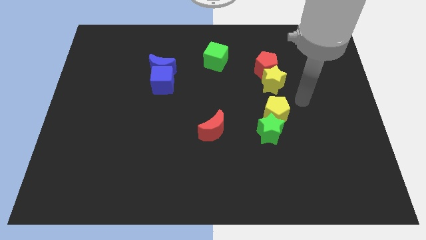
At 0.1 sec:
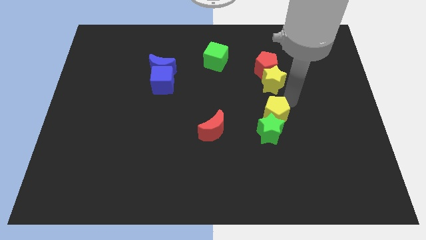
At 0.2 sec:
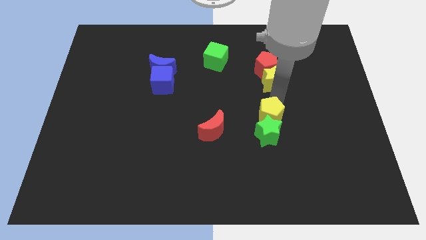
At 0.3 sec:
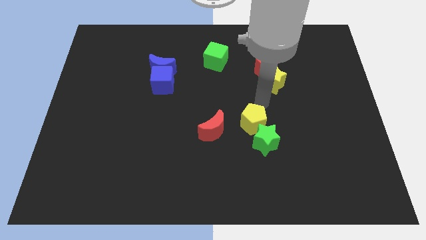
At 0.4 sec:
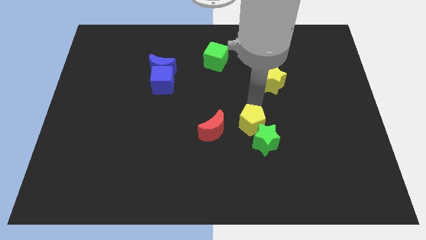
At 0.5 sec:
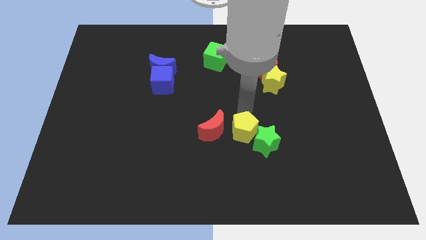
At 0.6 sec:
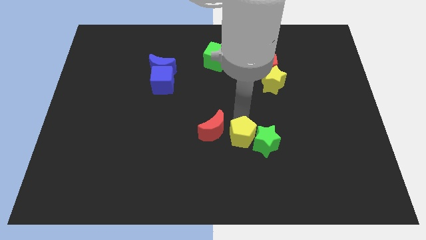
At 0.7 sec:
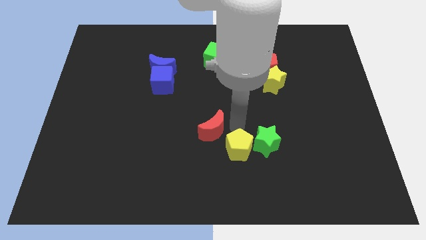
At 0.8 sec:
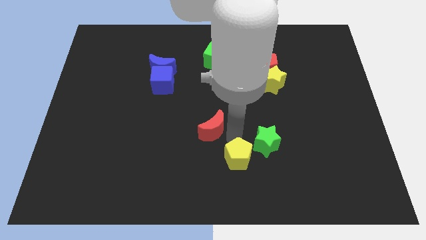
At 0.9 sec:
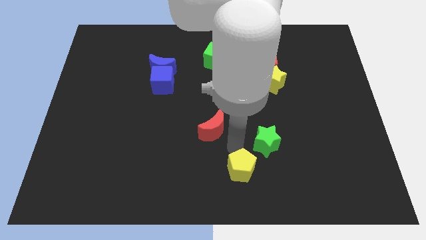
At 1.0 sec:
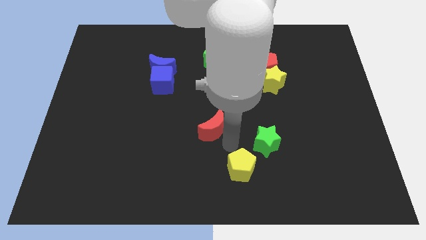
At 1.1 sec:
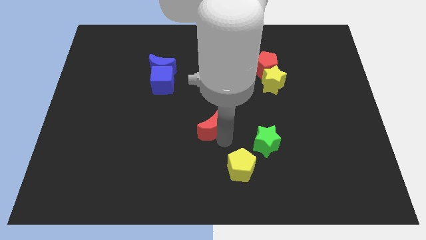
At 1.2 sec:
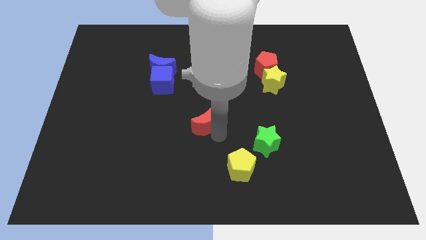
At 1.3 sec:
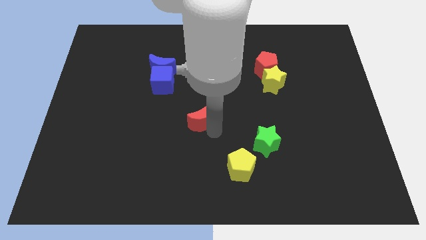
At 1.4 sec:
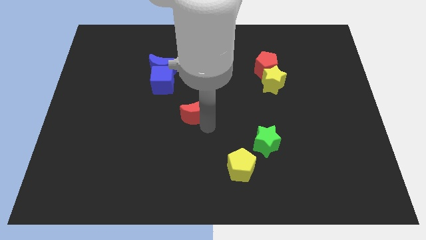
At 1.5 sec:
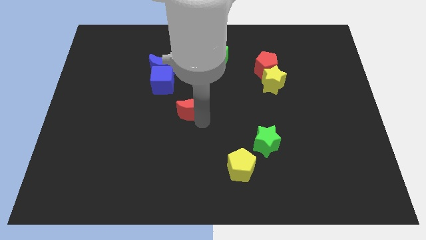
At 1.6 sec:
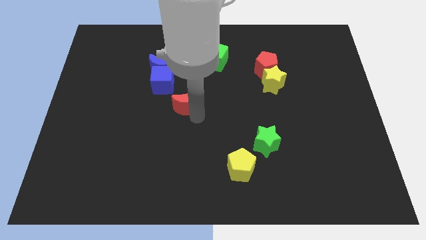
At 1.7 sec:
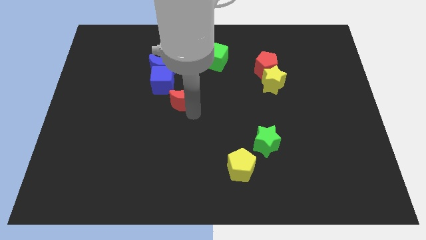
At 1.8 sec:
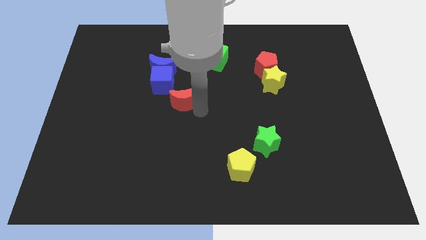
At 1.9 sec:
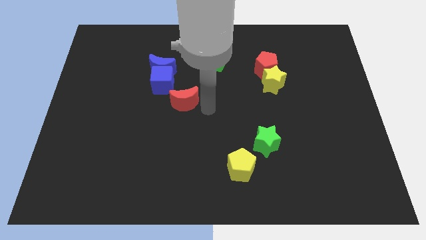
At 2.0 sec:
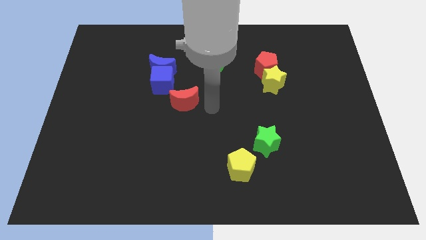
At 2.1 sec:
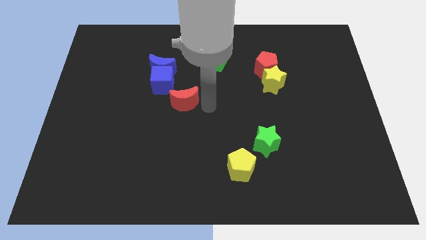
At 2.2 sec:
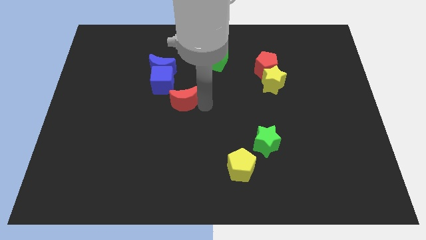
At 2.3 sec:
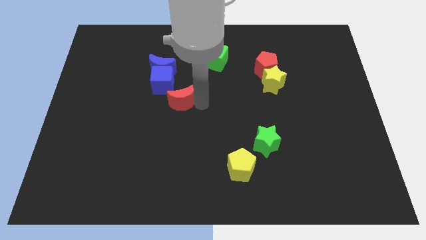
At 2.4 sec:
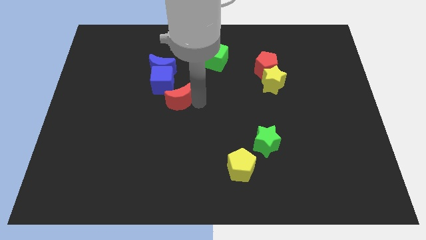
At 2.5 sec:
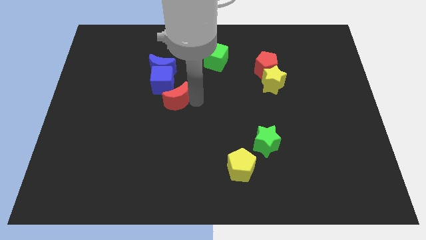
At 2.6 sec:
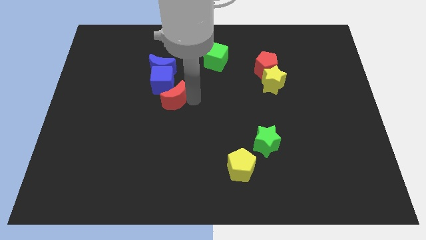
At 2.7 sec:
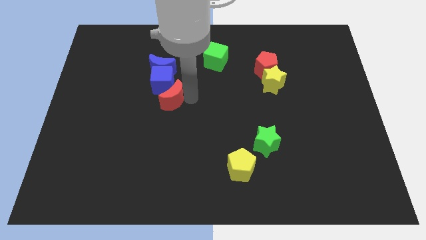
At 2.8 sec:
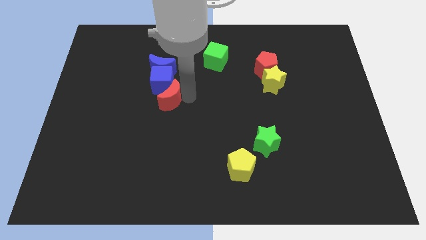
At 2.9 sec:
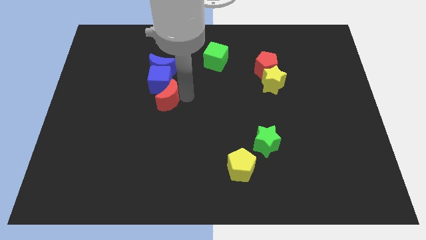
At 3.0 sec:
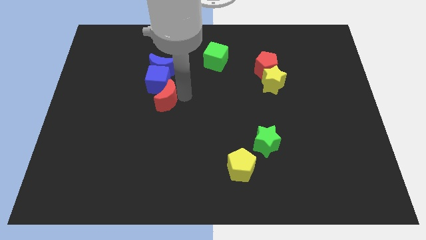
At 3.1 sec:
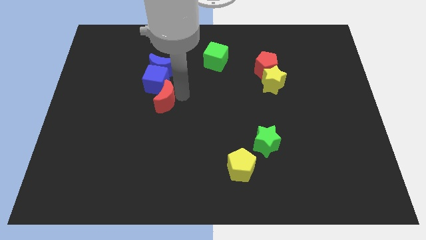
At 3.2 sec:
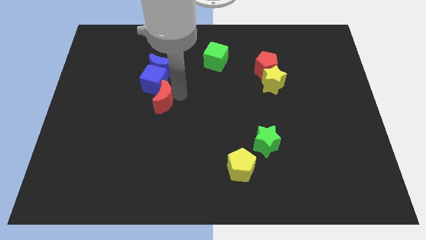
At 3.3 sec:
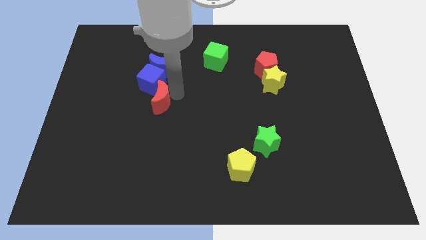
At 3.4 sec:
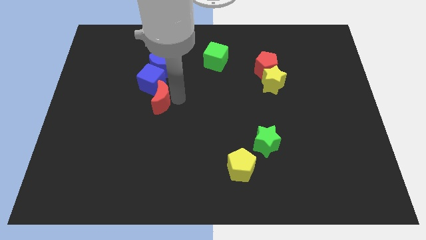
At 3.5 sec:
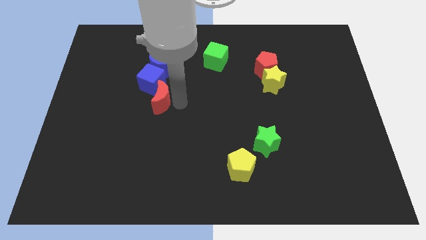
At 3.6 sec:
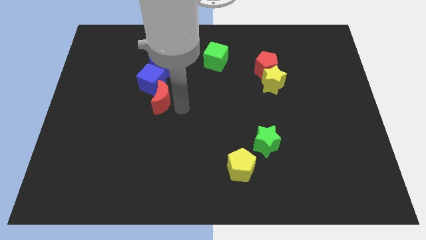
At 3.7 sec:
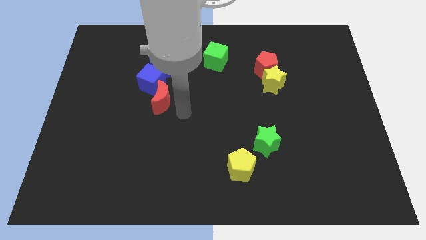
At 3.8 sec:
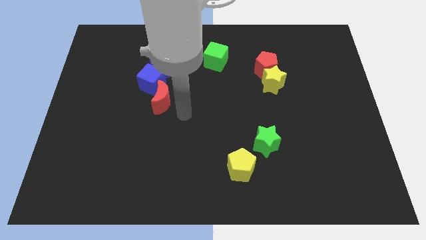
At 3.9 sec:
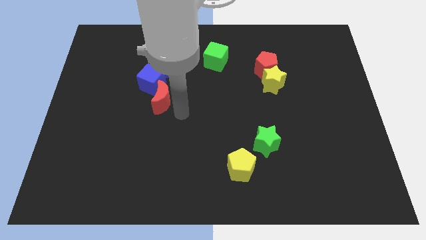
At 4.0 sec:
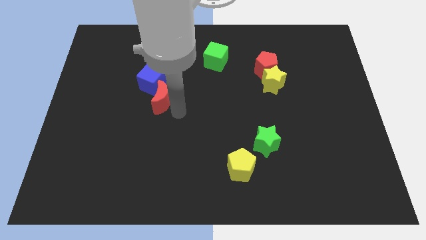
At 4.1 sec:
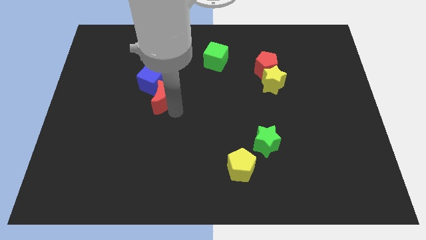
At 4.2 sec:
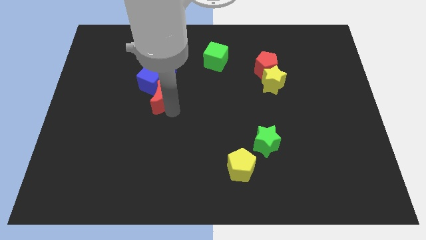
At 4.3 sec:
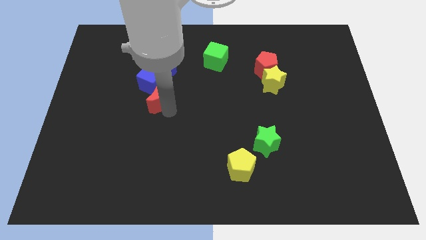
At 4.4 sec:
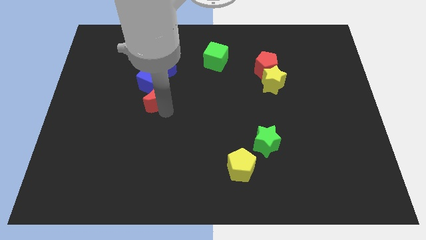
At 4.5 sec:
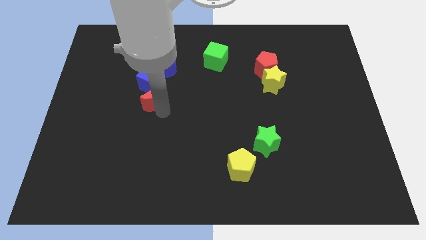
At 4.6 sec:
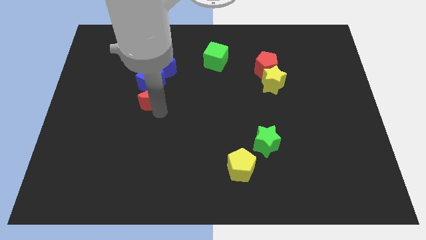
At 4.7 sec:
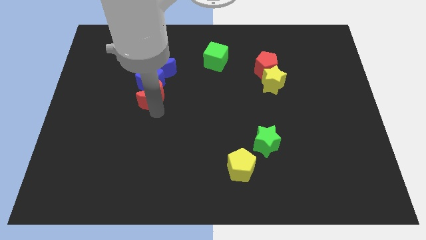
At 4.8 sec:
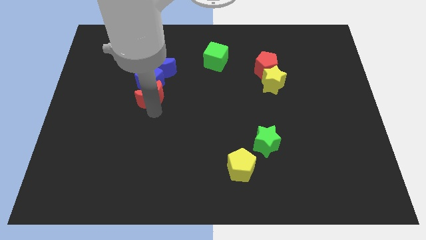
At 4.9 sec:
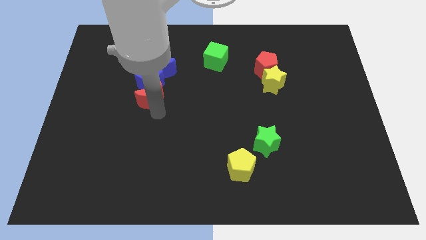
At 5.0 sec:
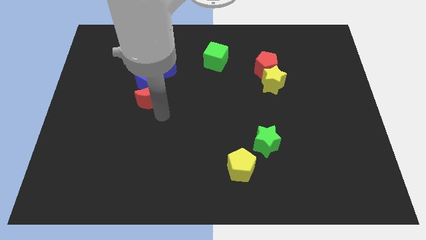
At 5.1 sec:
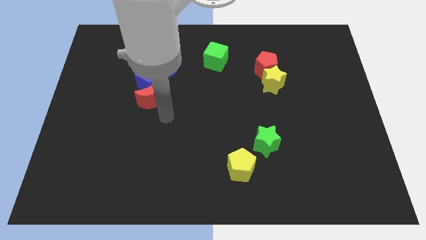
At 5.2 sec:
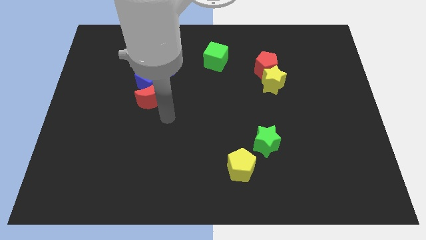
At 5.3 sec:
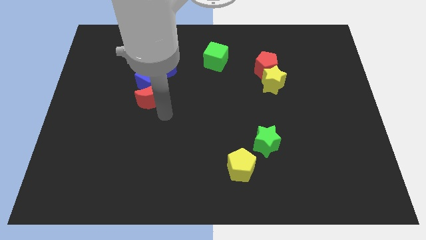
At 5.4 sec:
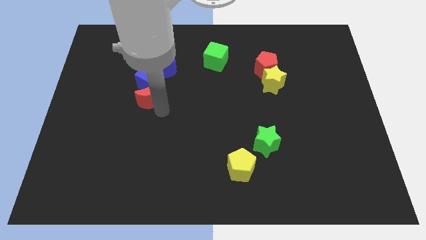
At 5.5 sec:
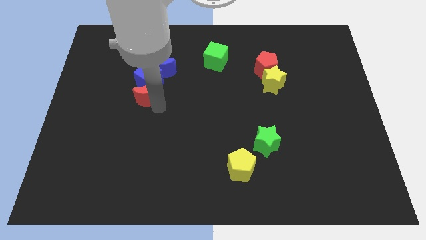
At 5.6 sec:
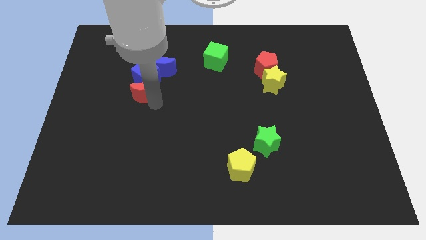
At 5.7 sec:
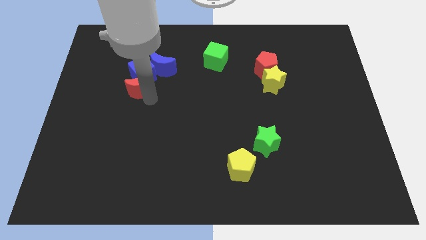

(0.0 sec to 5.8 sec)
slide the red moon up and to the left diagonally
